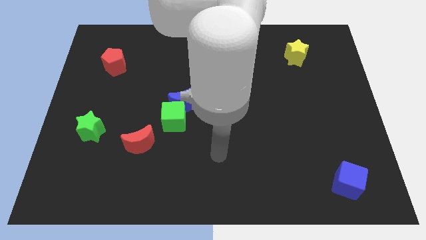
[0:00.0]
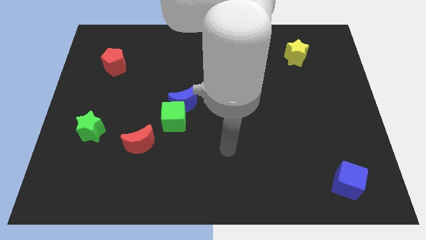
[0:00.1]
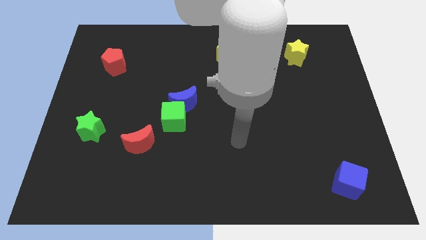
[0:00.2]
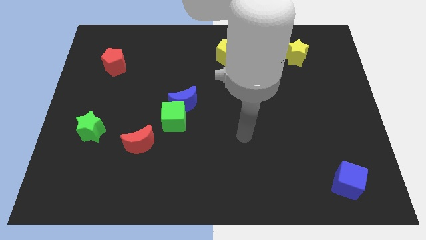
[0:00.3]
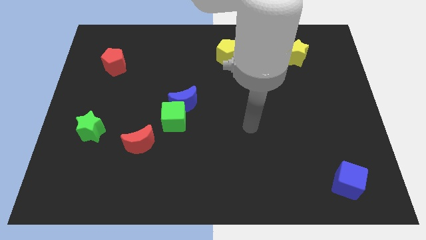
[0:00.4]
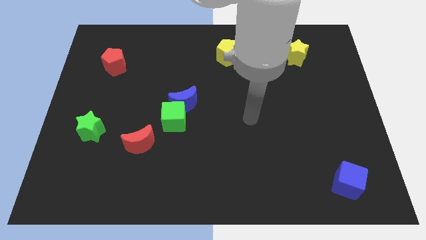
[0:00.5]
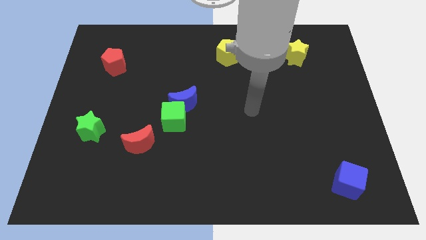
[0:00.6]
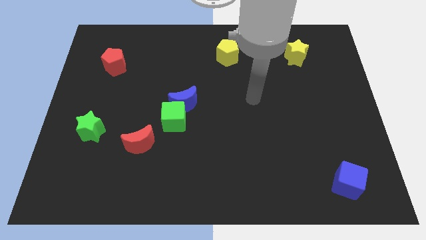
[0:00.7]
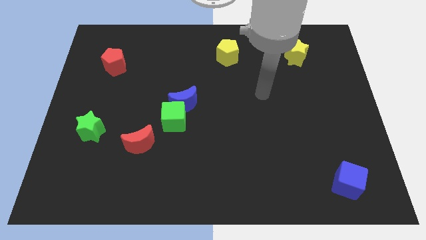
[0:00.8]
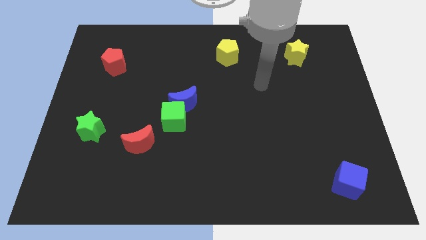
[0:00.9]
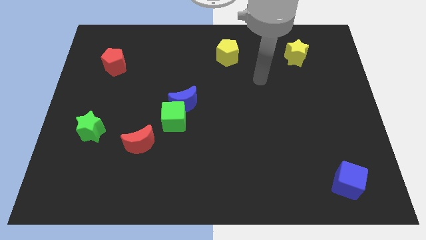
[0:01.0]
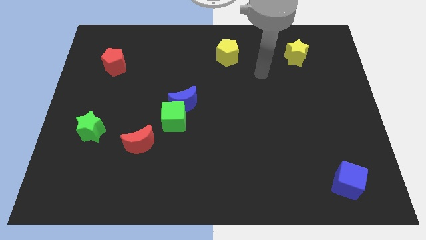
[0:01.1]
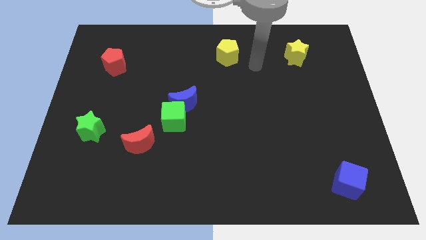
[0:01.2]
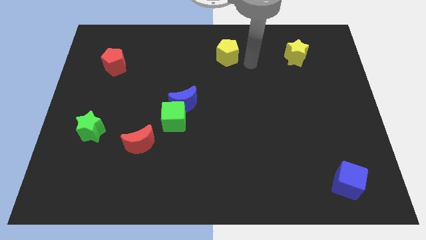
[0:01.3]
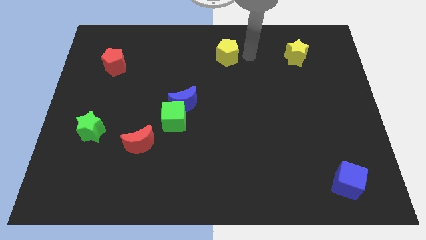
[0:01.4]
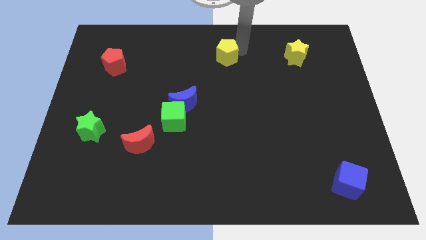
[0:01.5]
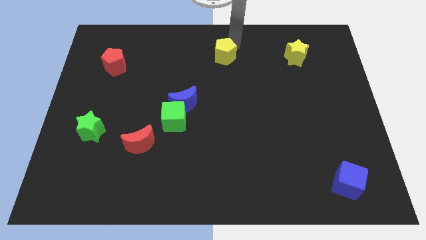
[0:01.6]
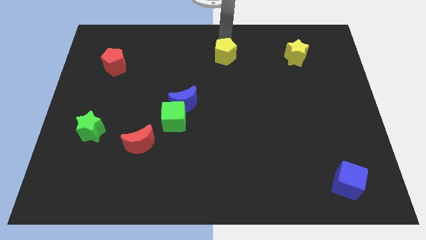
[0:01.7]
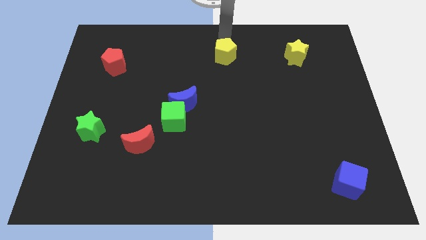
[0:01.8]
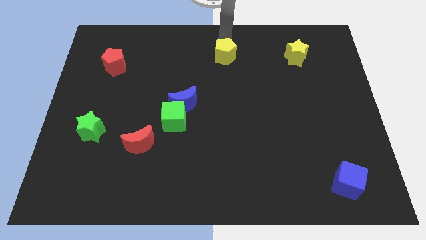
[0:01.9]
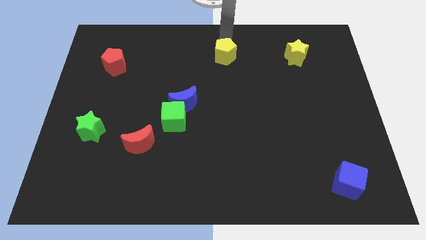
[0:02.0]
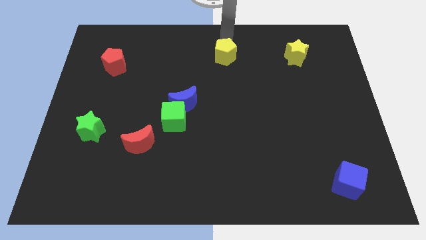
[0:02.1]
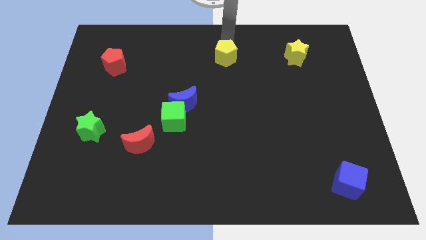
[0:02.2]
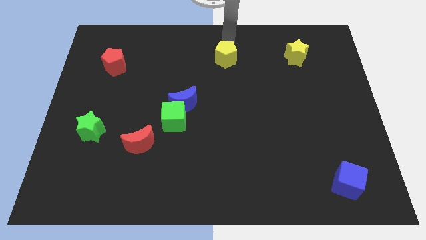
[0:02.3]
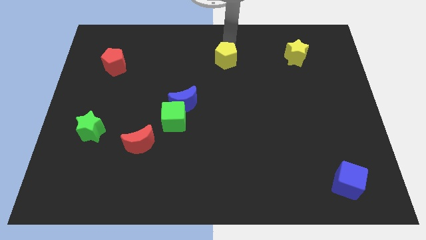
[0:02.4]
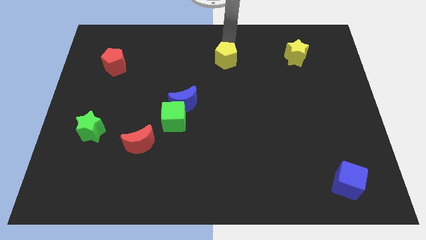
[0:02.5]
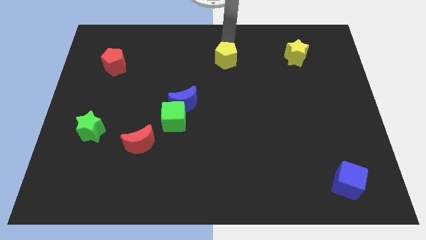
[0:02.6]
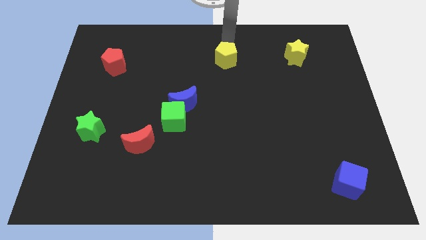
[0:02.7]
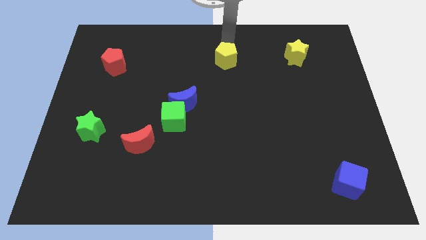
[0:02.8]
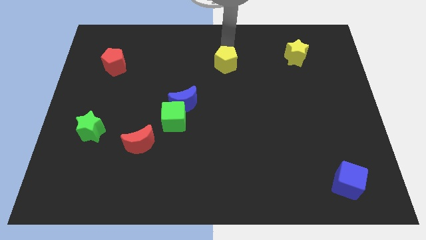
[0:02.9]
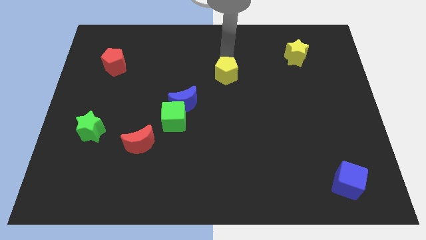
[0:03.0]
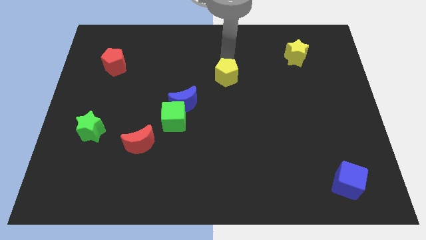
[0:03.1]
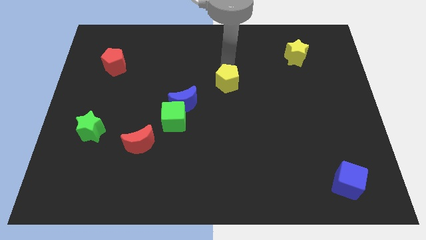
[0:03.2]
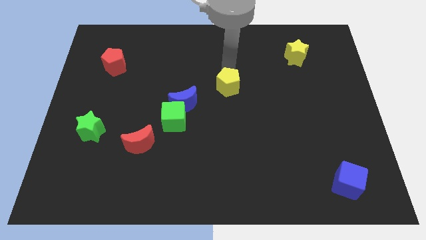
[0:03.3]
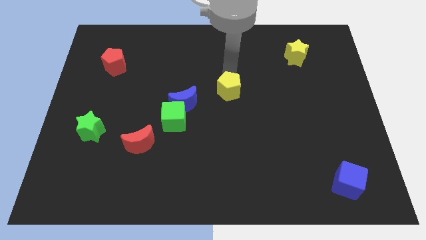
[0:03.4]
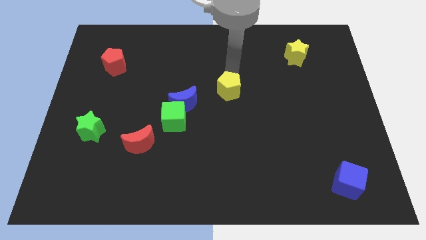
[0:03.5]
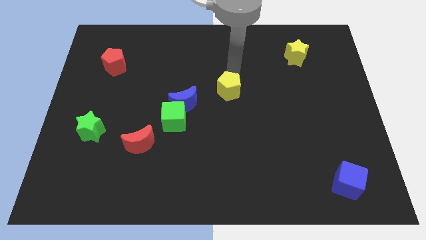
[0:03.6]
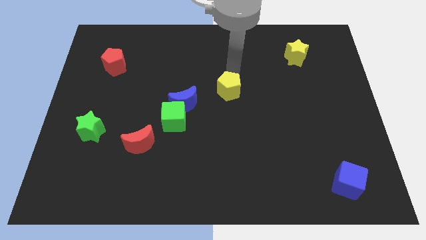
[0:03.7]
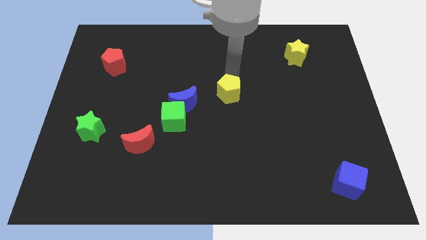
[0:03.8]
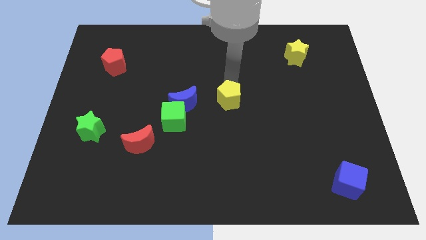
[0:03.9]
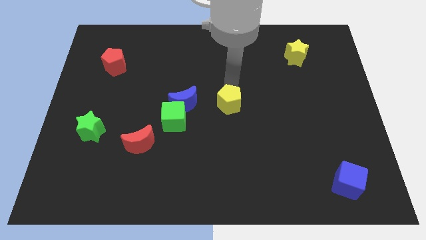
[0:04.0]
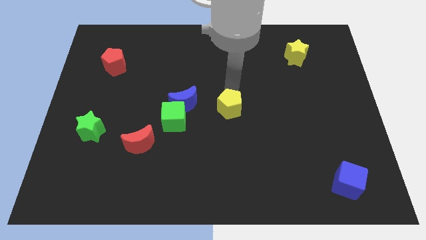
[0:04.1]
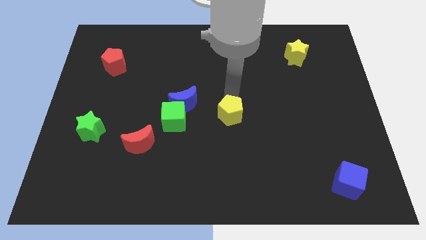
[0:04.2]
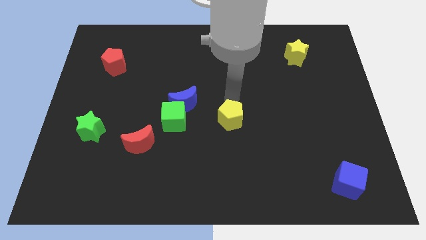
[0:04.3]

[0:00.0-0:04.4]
slide the yellow pentagon downwards

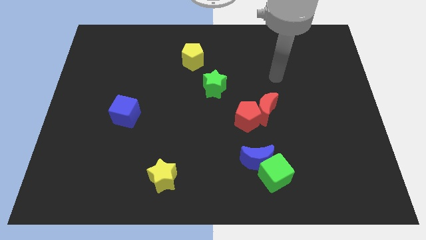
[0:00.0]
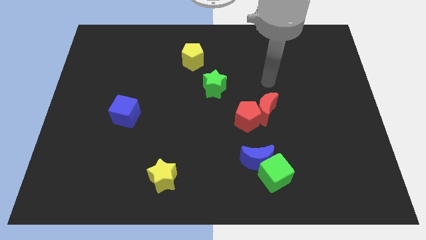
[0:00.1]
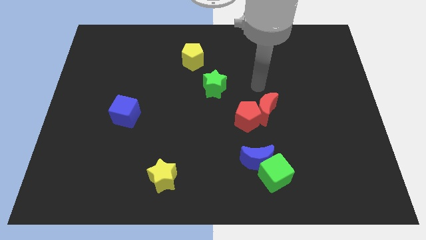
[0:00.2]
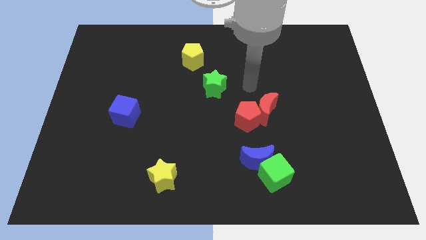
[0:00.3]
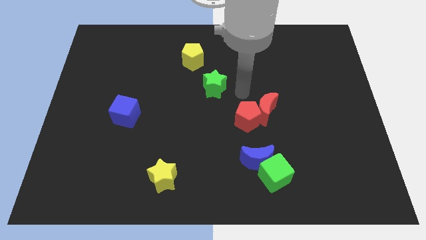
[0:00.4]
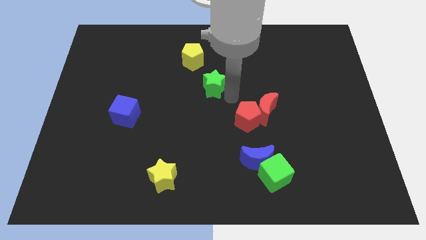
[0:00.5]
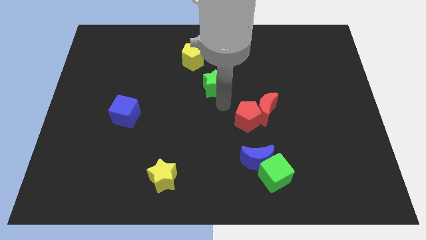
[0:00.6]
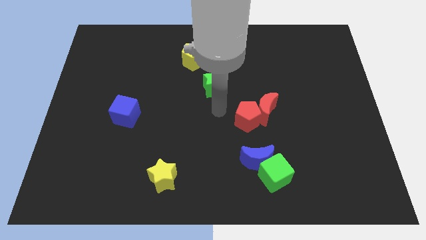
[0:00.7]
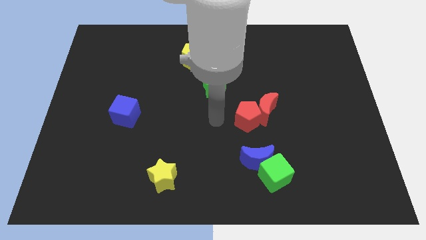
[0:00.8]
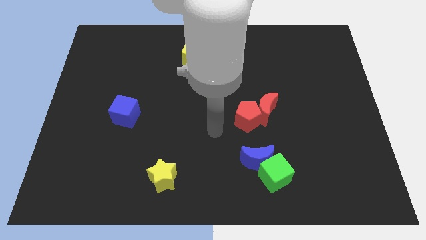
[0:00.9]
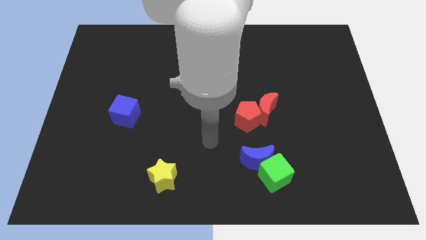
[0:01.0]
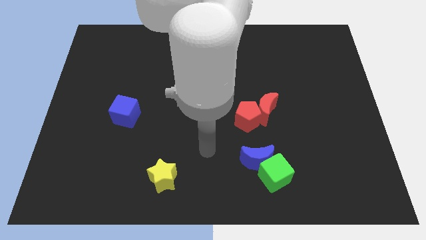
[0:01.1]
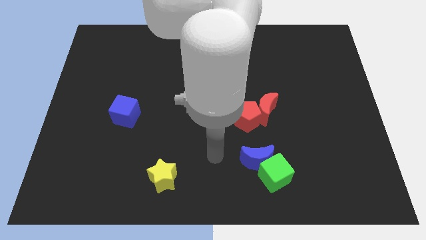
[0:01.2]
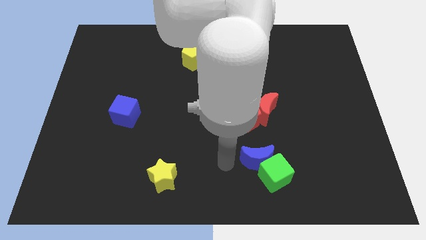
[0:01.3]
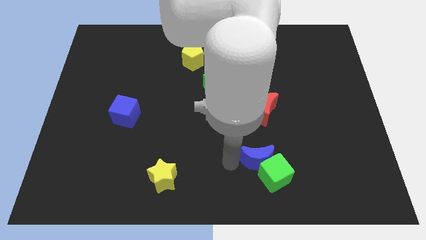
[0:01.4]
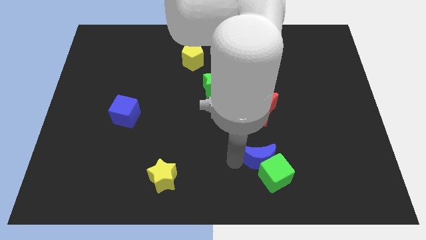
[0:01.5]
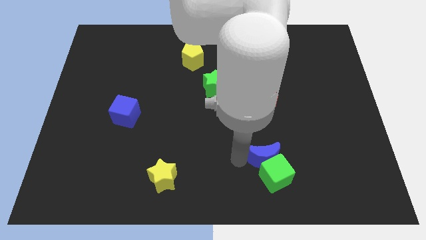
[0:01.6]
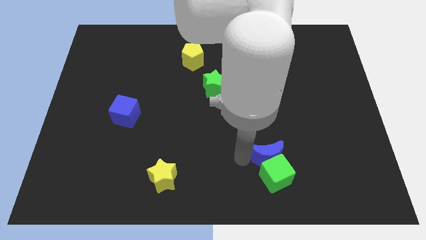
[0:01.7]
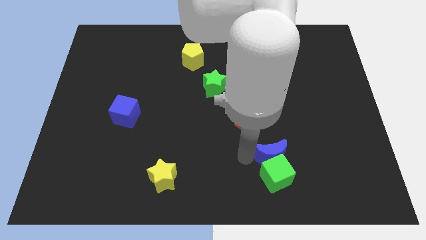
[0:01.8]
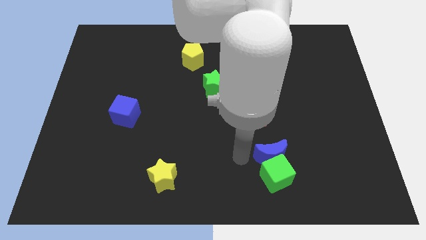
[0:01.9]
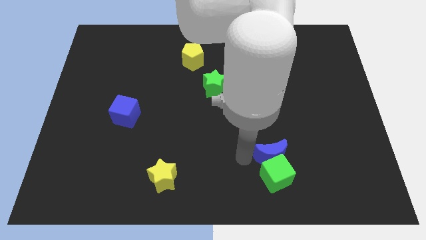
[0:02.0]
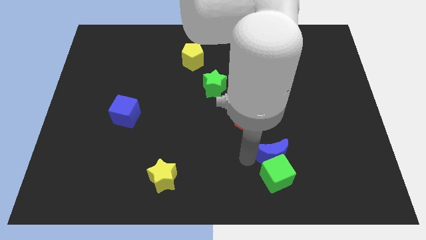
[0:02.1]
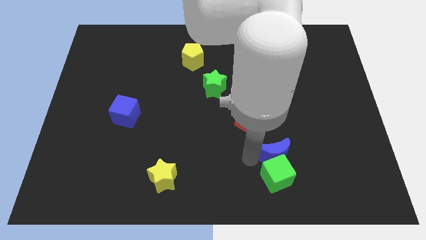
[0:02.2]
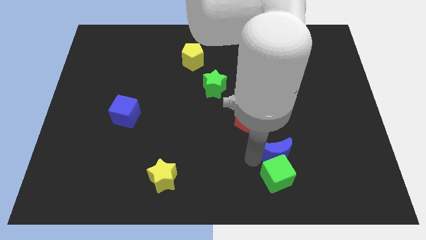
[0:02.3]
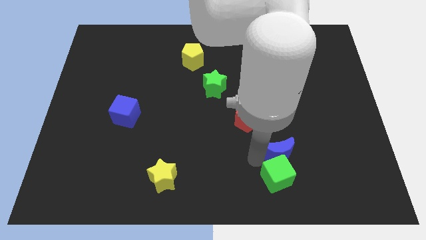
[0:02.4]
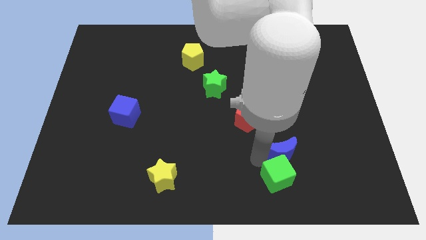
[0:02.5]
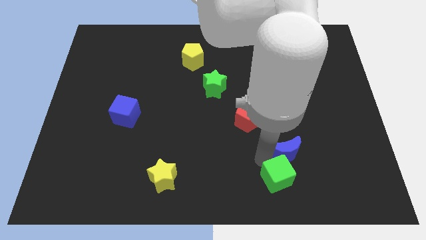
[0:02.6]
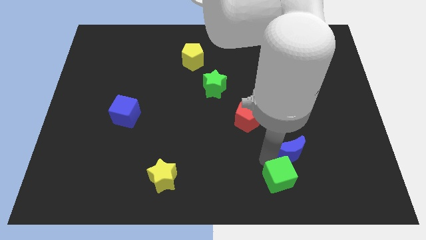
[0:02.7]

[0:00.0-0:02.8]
slightly push the blue moon to the right

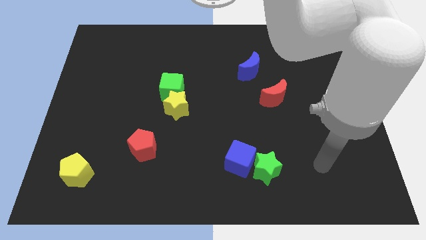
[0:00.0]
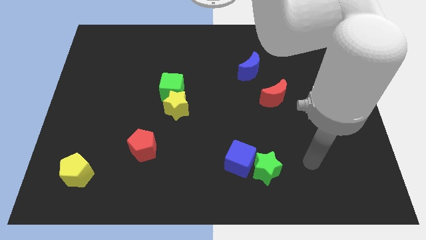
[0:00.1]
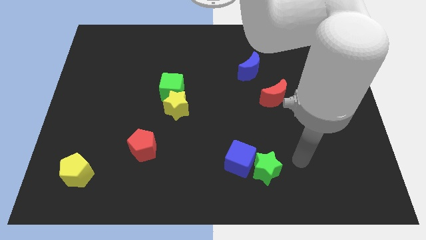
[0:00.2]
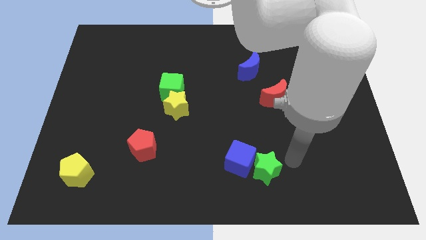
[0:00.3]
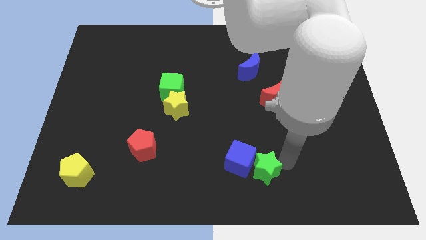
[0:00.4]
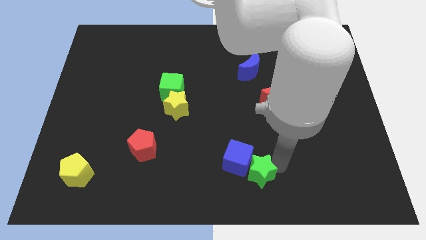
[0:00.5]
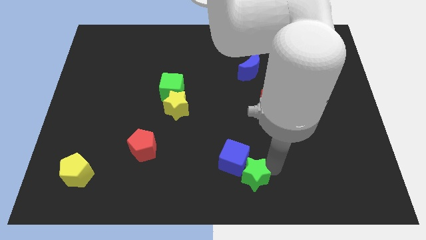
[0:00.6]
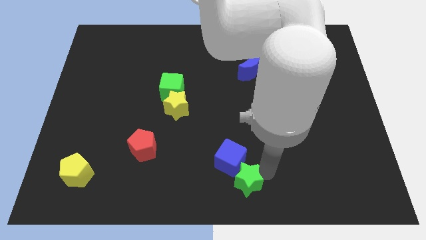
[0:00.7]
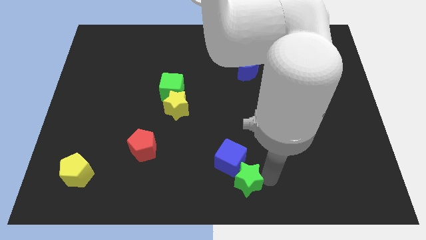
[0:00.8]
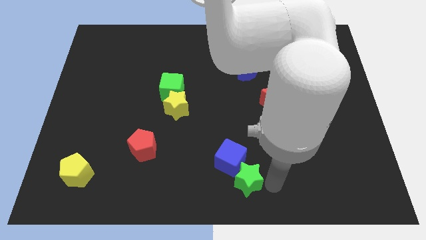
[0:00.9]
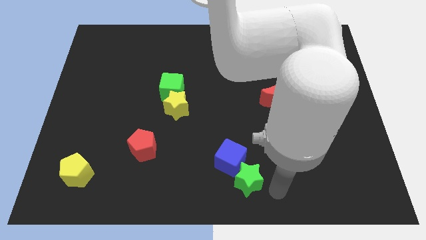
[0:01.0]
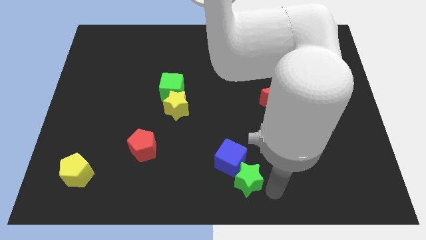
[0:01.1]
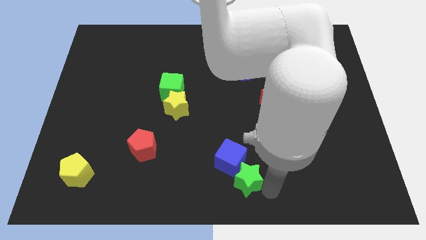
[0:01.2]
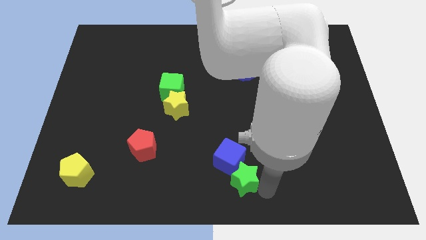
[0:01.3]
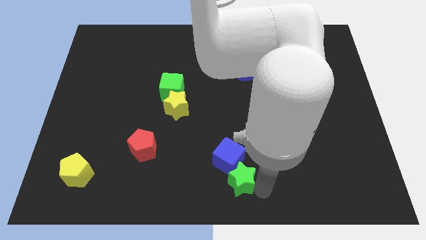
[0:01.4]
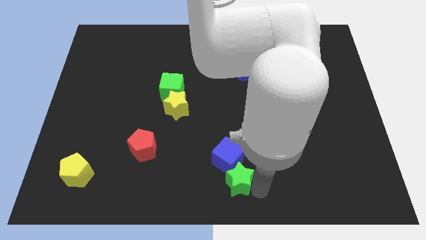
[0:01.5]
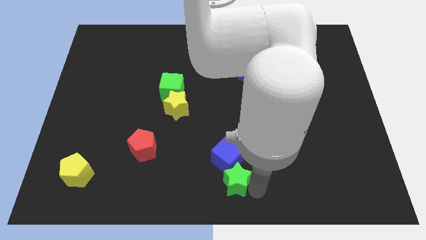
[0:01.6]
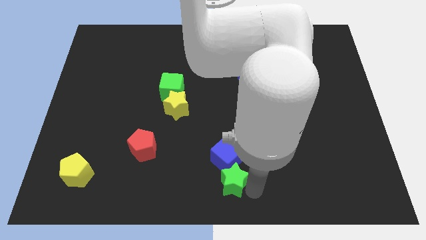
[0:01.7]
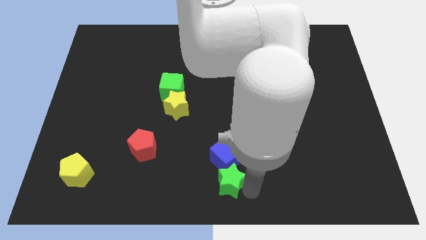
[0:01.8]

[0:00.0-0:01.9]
push the green star to the left a bit
